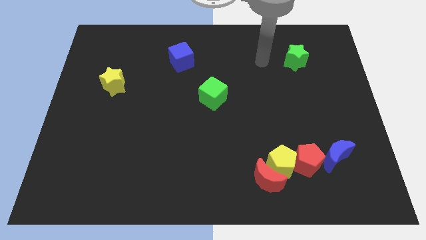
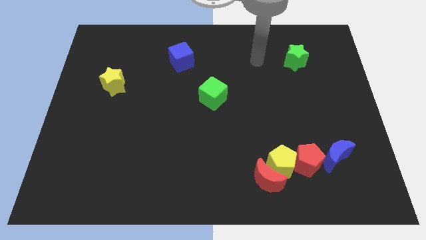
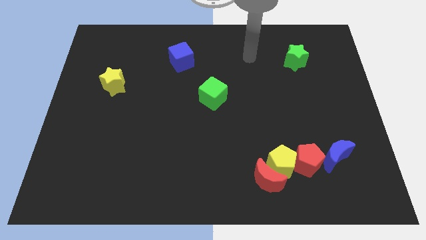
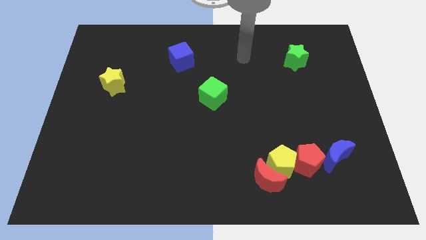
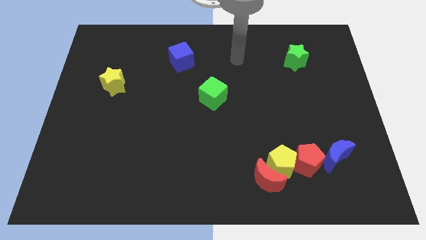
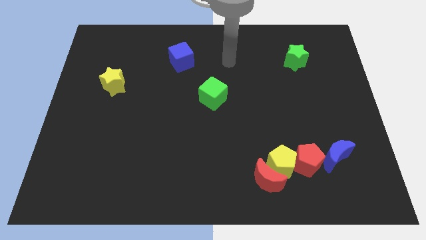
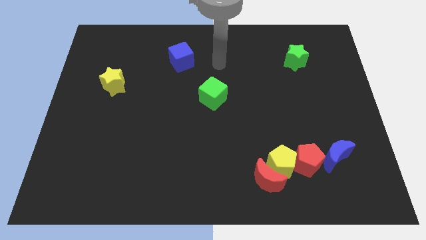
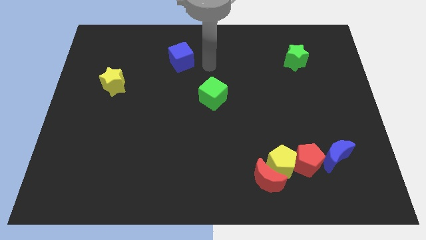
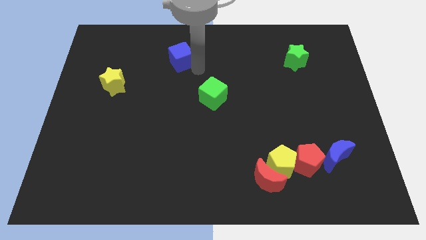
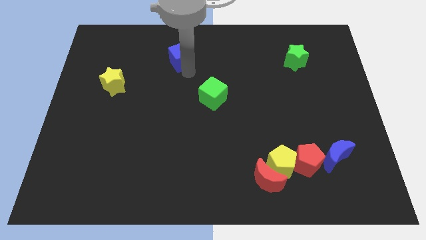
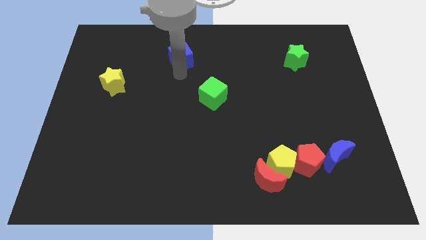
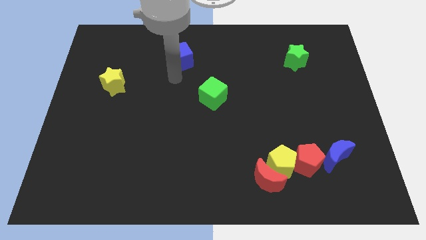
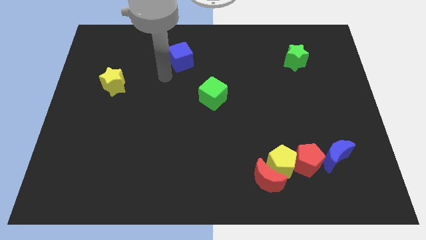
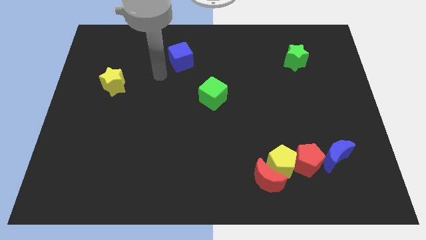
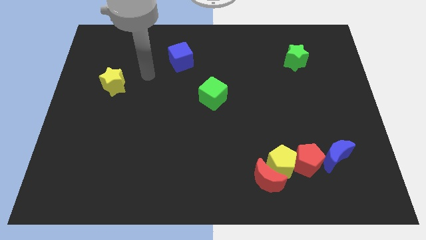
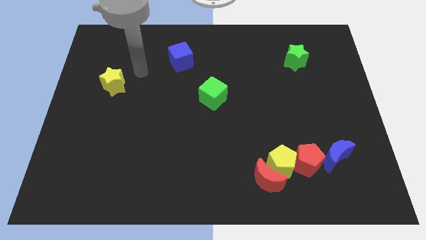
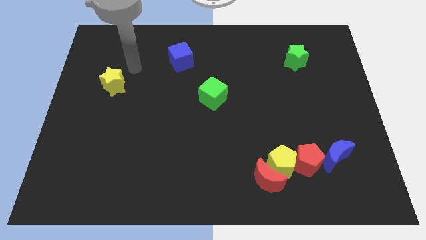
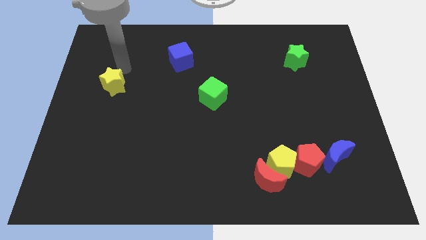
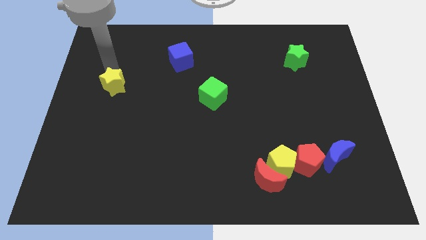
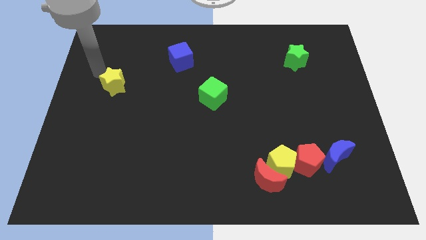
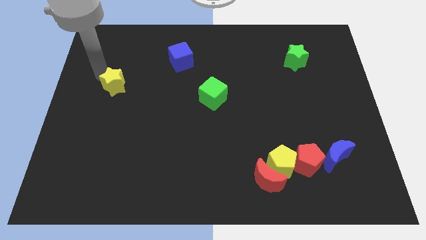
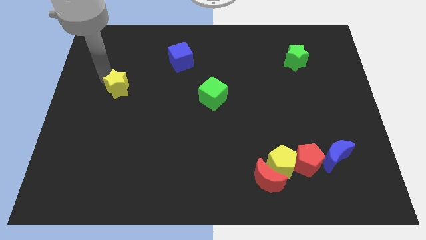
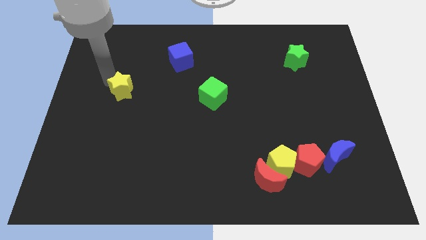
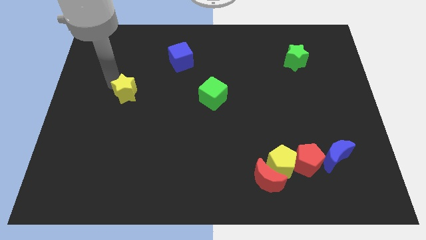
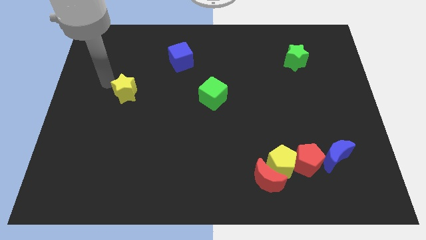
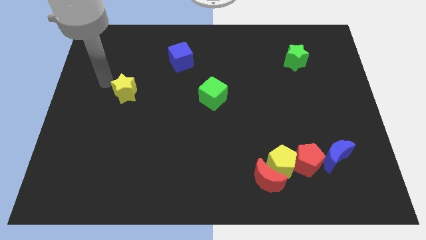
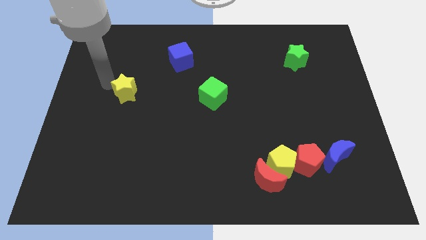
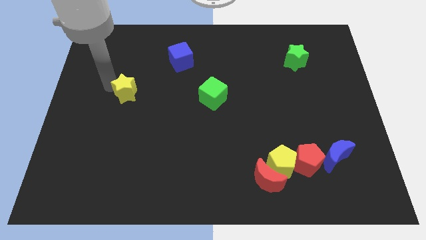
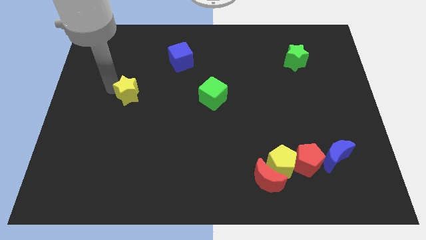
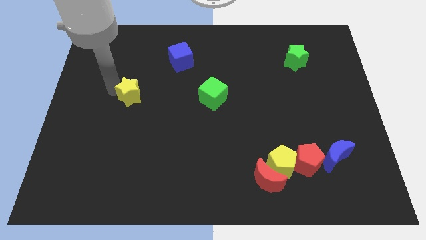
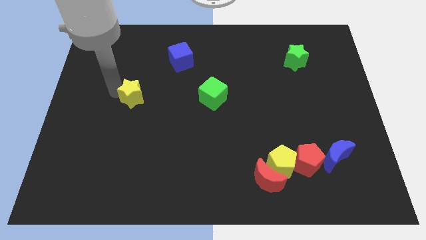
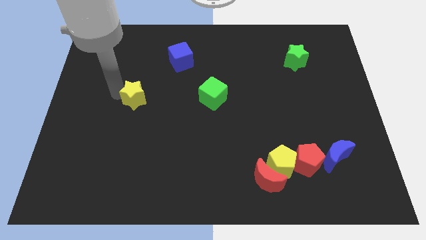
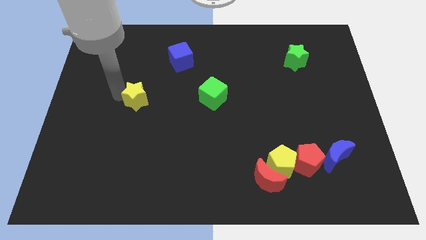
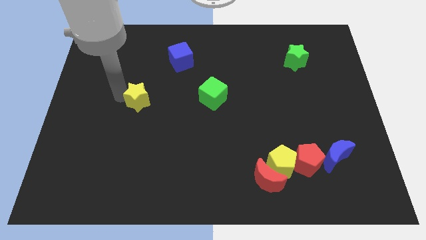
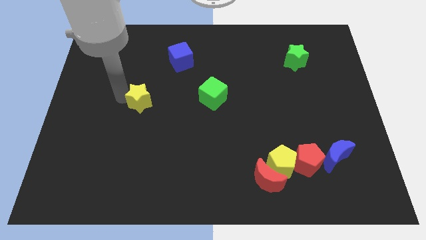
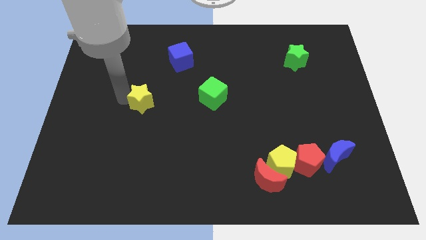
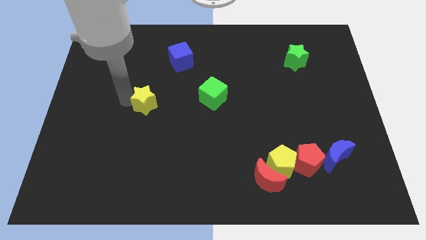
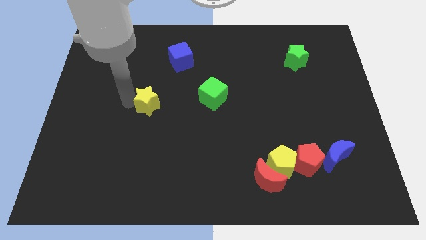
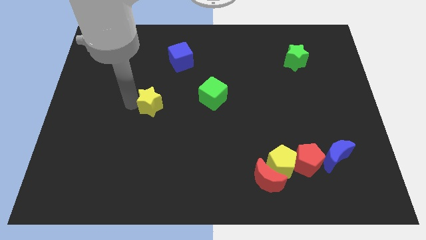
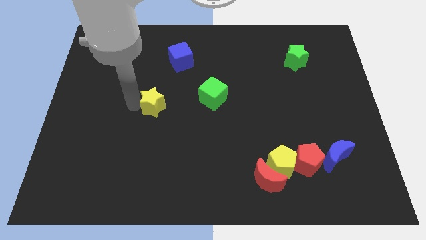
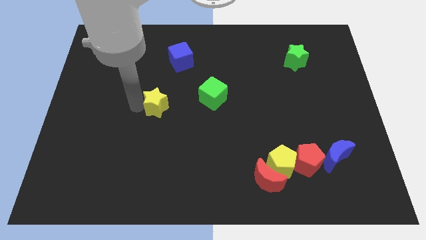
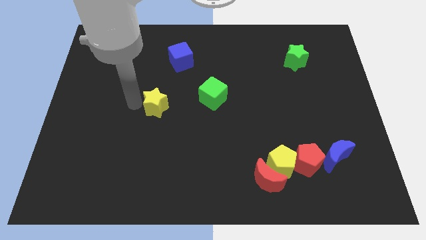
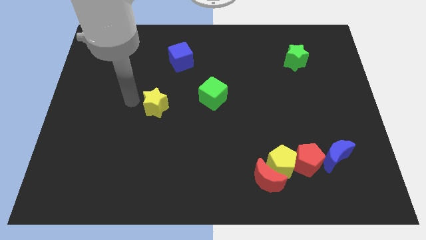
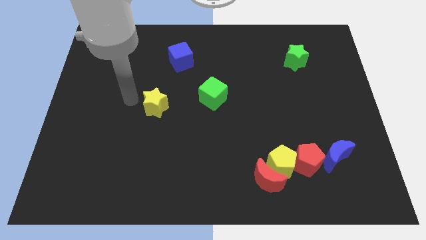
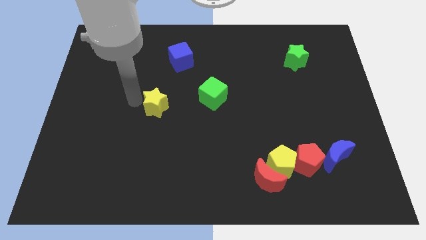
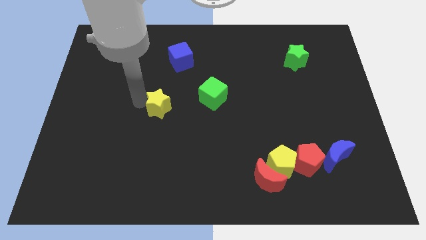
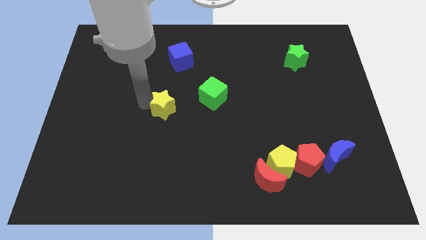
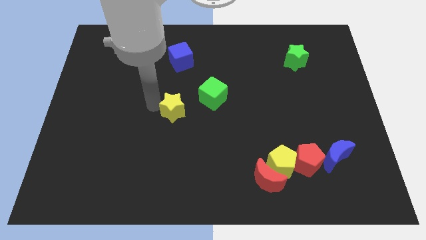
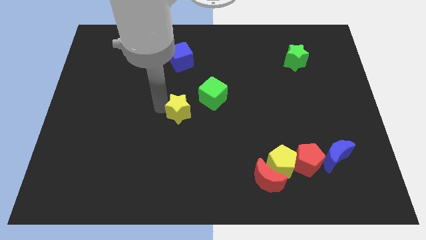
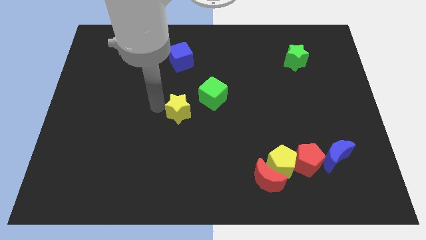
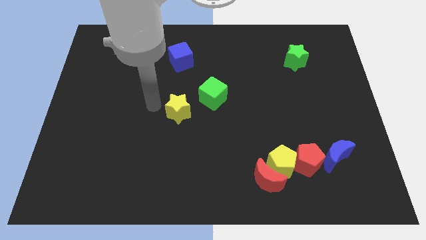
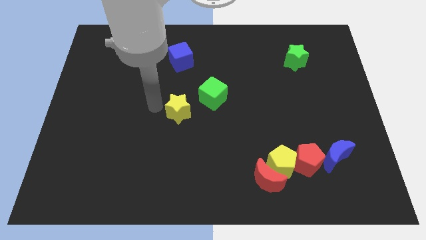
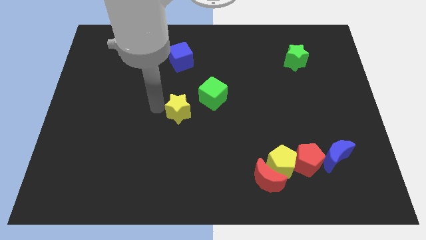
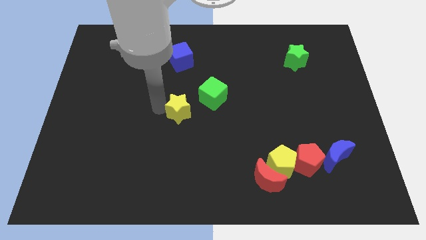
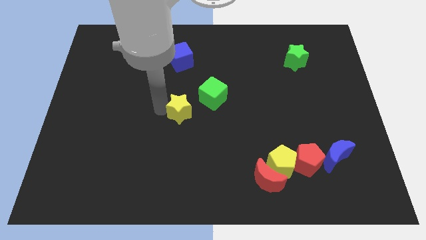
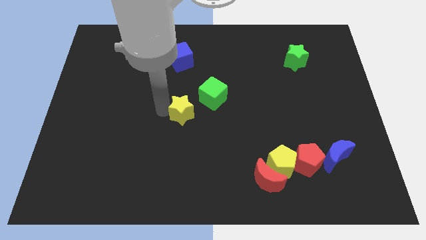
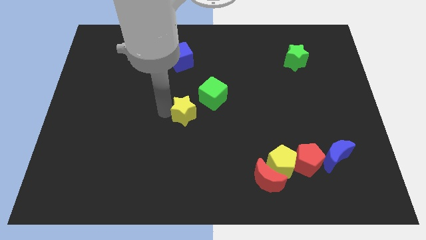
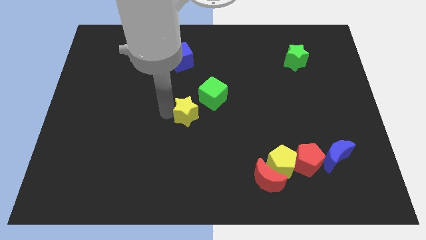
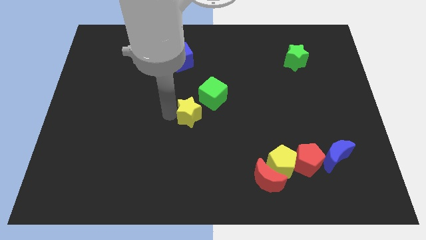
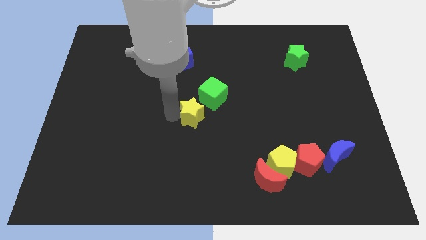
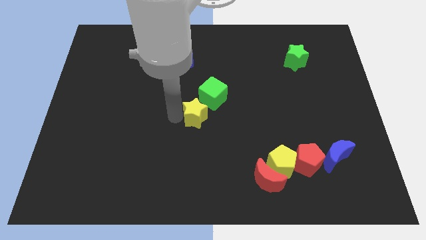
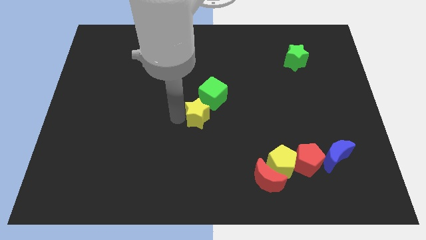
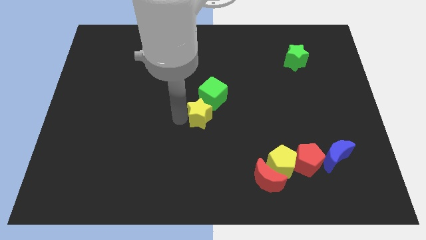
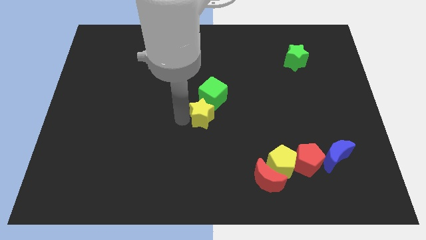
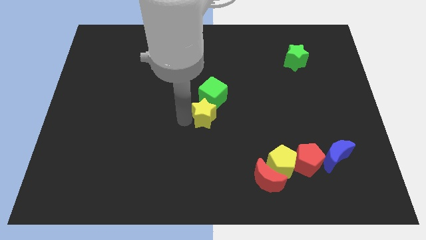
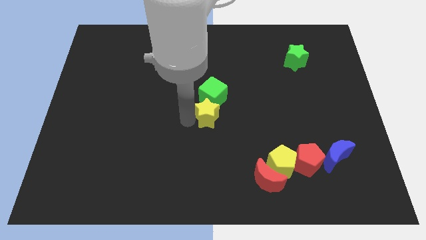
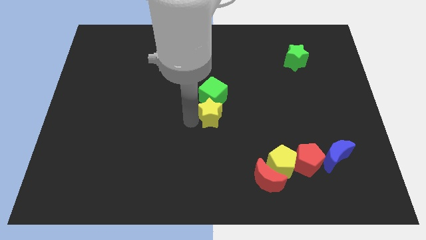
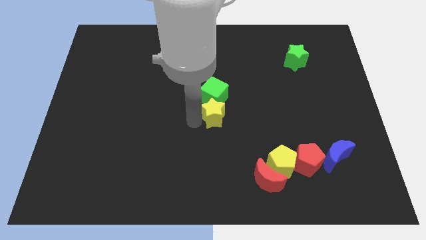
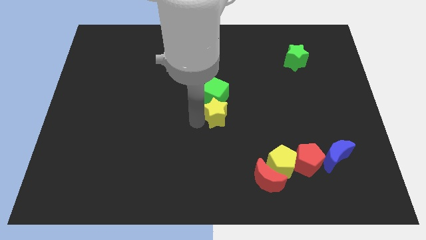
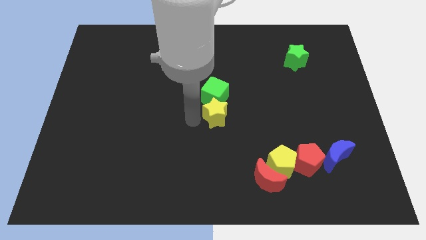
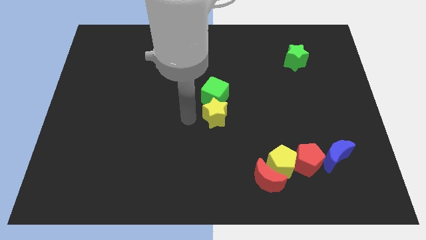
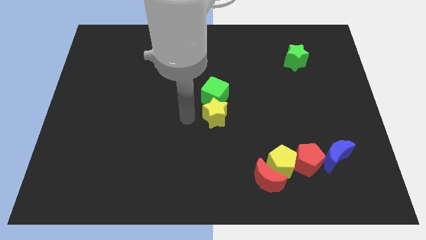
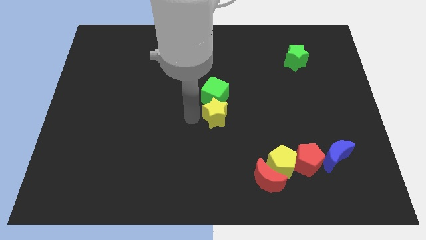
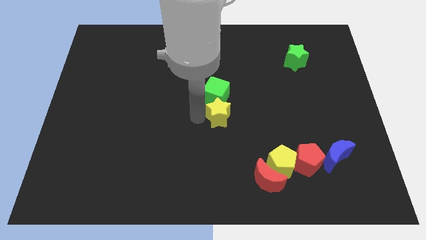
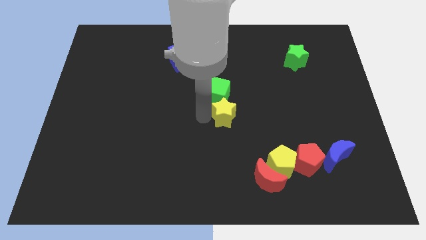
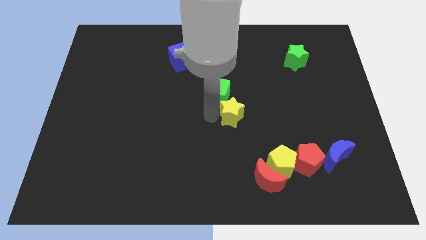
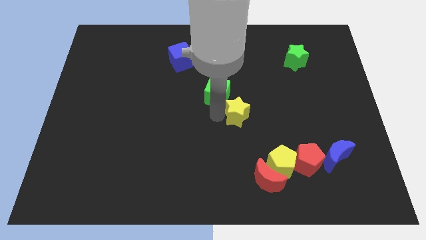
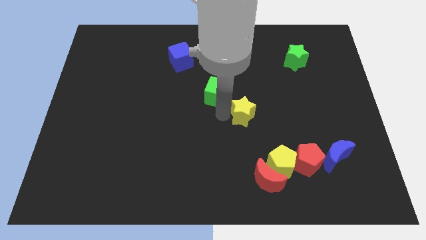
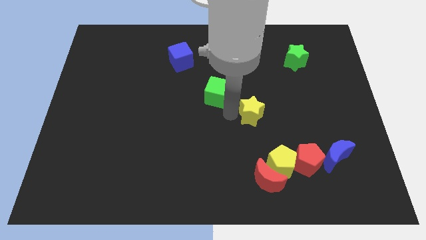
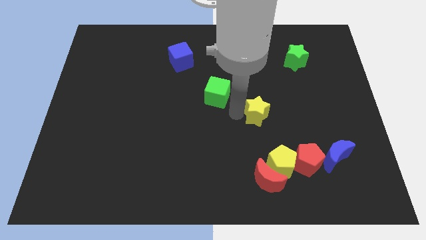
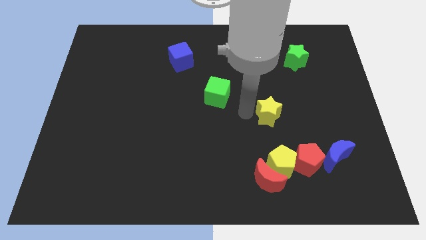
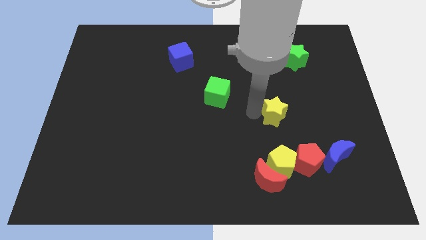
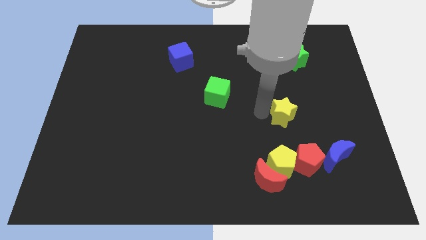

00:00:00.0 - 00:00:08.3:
move the yellow star above the red pentagon
